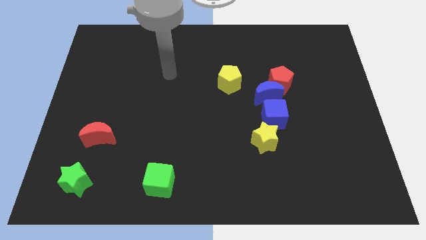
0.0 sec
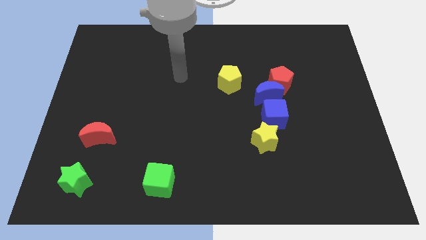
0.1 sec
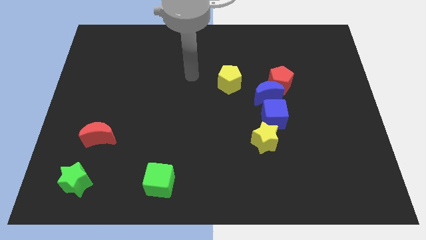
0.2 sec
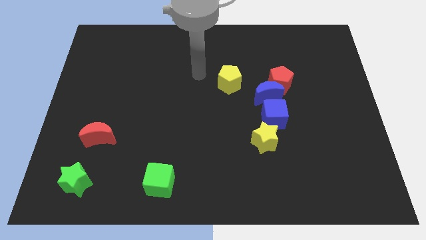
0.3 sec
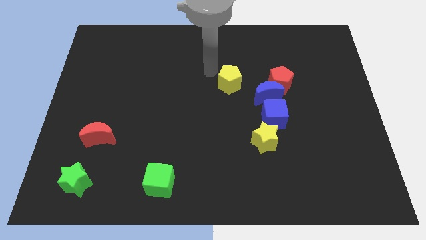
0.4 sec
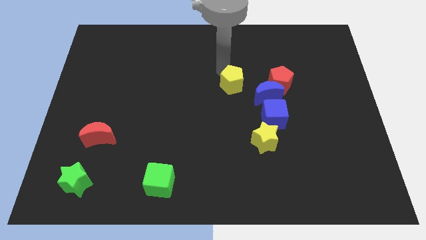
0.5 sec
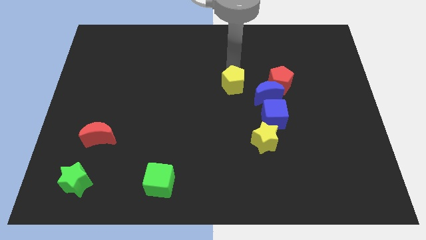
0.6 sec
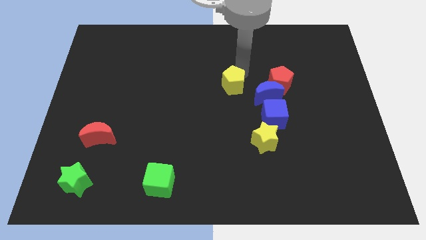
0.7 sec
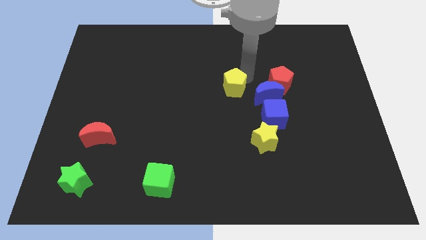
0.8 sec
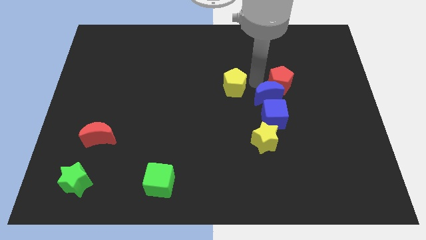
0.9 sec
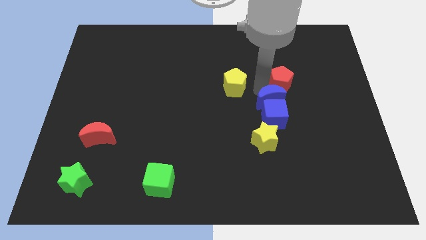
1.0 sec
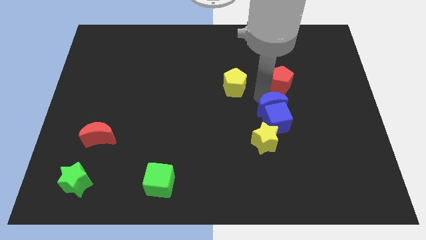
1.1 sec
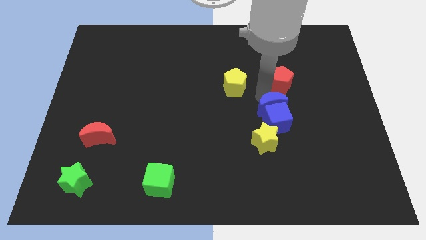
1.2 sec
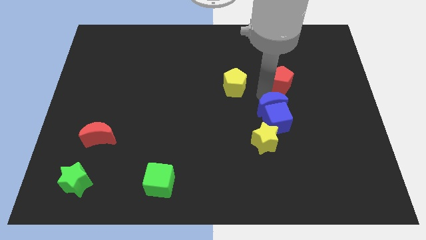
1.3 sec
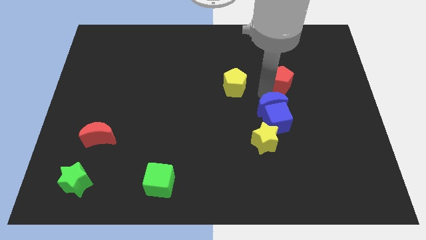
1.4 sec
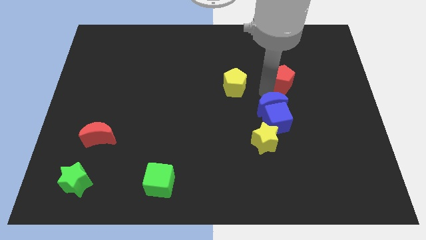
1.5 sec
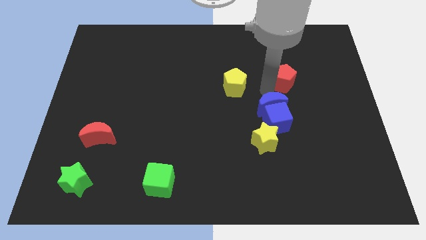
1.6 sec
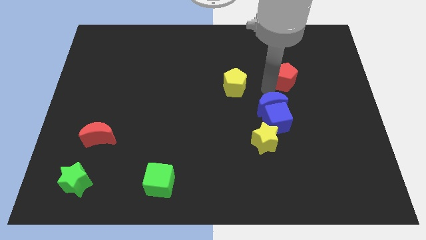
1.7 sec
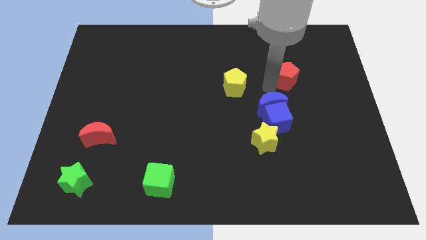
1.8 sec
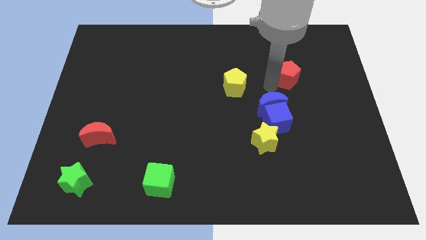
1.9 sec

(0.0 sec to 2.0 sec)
pull the red pentagon apart from the blue moon

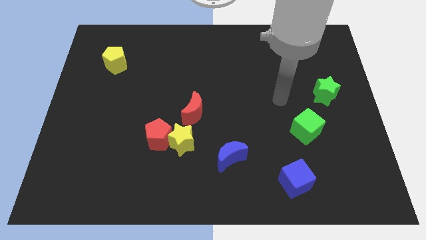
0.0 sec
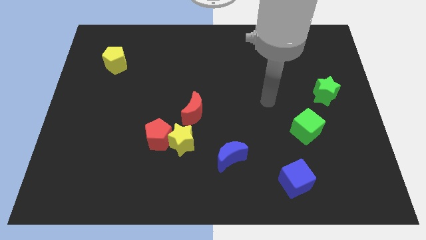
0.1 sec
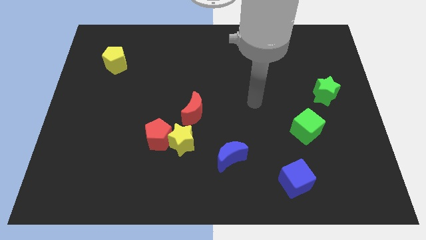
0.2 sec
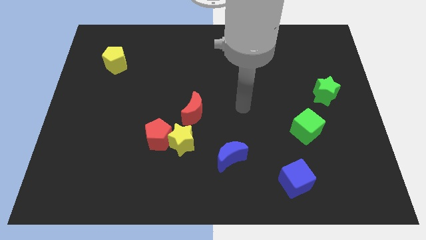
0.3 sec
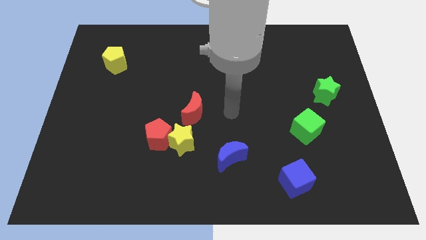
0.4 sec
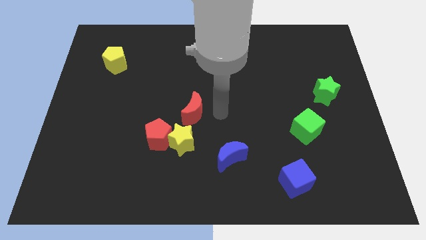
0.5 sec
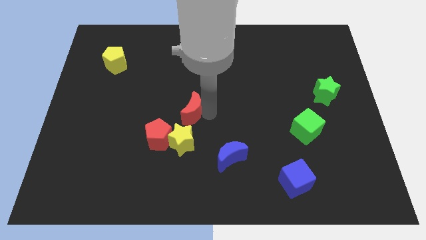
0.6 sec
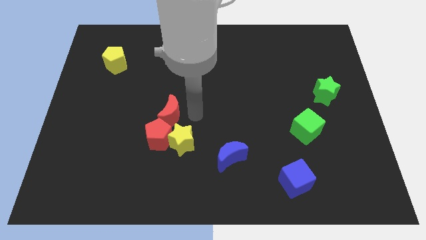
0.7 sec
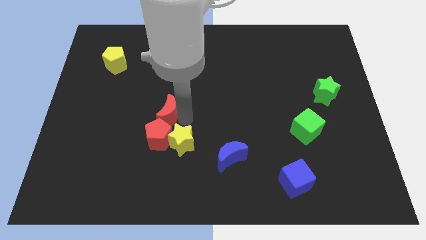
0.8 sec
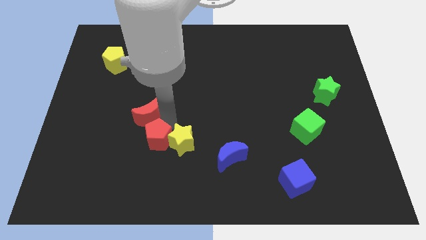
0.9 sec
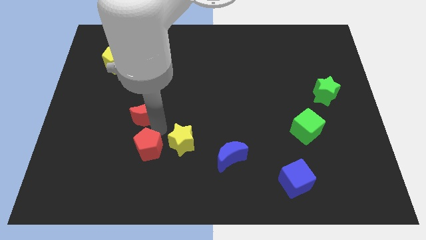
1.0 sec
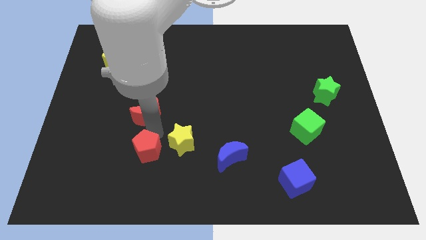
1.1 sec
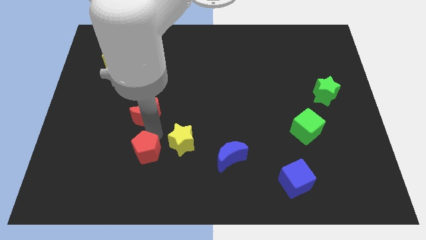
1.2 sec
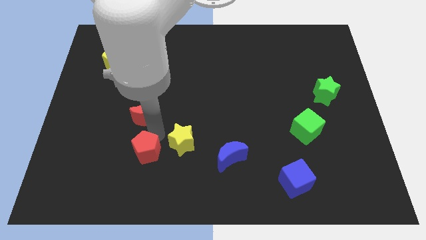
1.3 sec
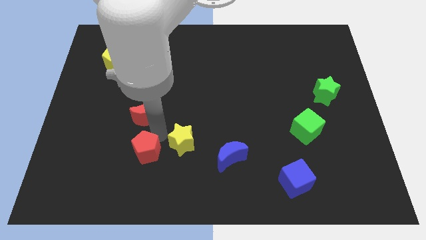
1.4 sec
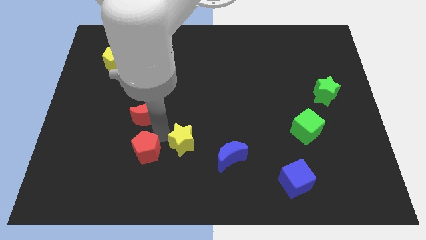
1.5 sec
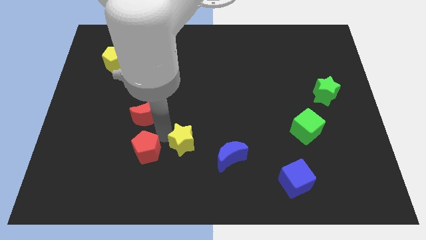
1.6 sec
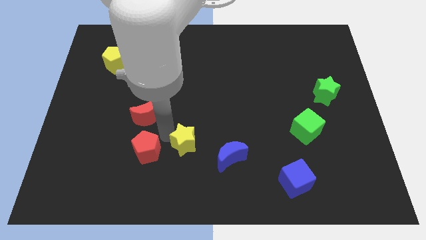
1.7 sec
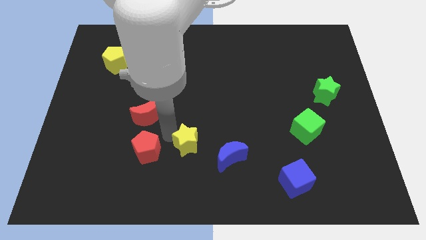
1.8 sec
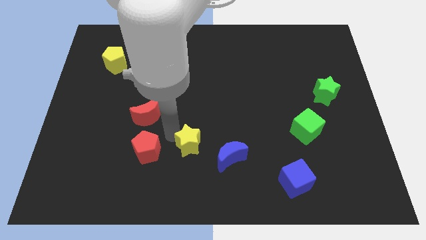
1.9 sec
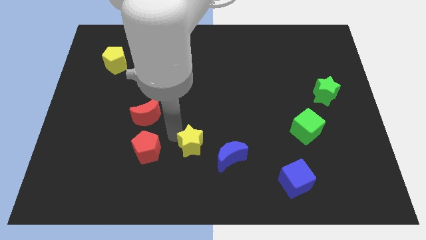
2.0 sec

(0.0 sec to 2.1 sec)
move the yellow star away from the red pentagon and red moon

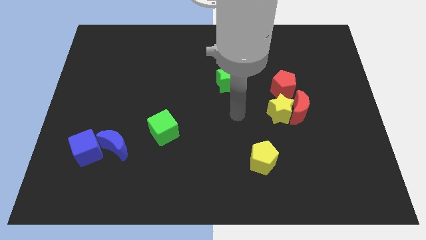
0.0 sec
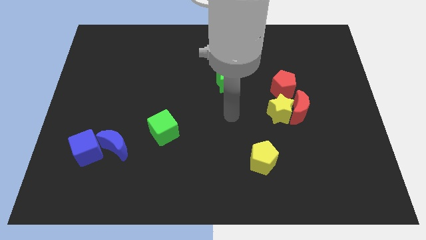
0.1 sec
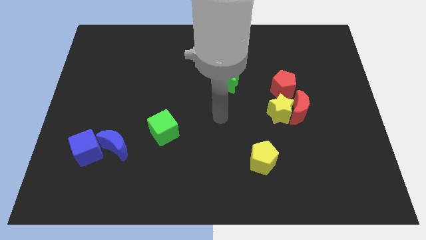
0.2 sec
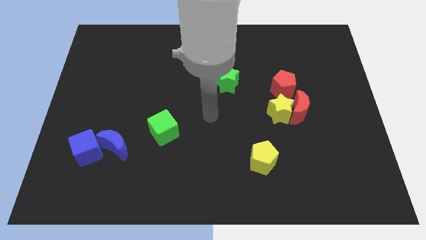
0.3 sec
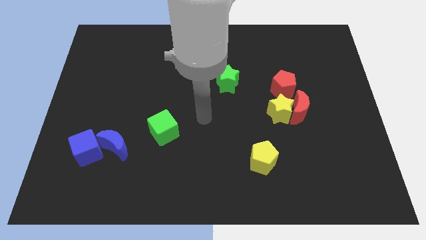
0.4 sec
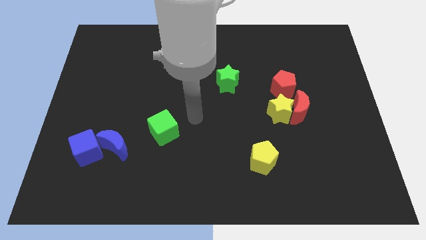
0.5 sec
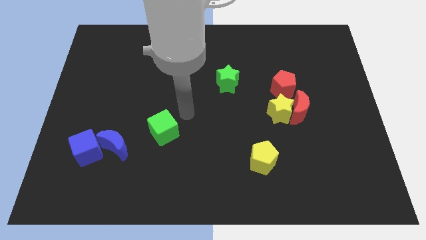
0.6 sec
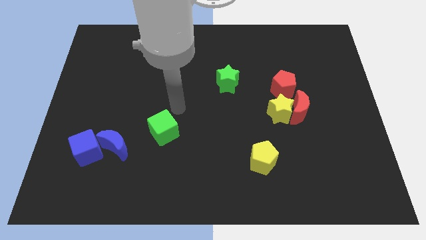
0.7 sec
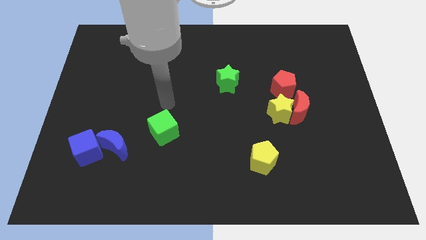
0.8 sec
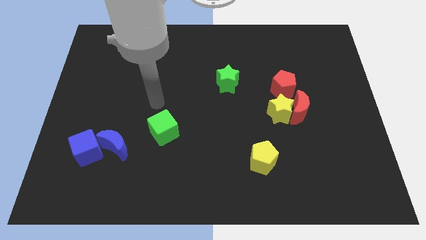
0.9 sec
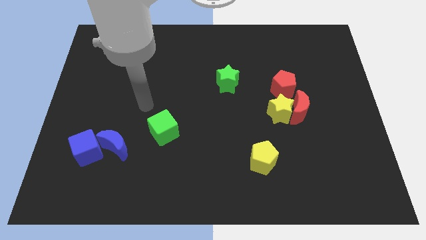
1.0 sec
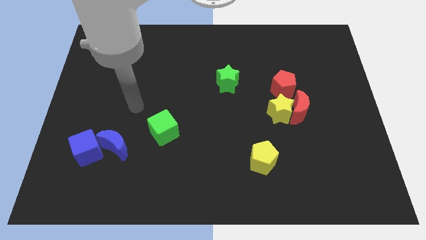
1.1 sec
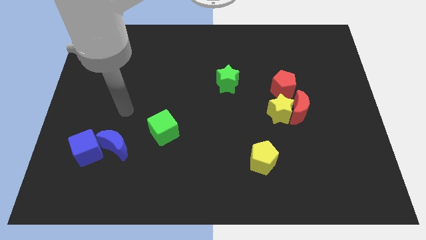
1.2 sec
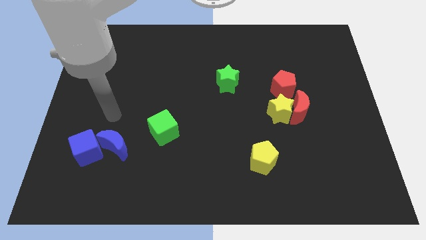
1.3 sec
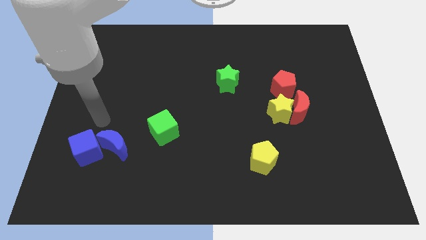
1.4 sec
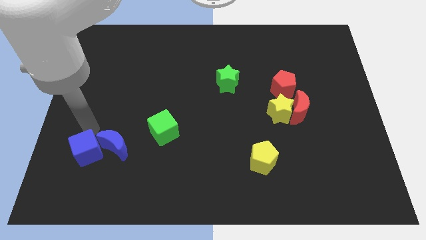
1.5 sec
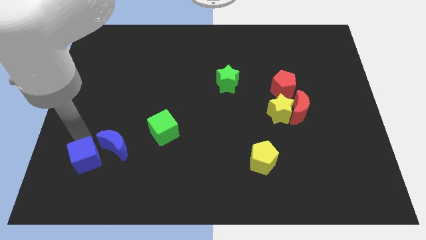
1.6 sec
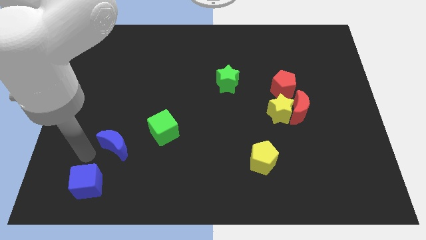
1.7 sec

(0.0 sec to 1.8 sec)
separate the blue moon from the blue cube

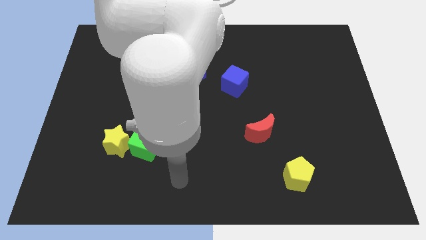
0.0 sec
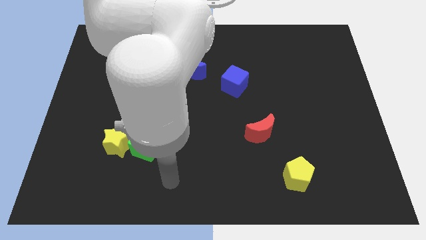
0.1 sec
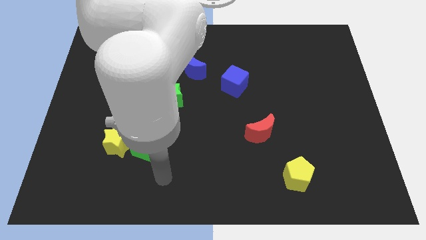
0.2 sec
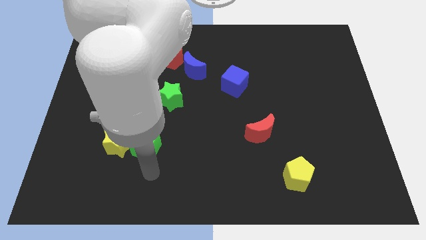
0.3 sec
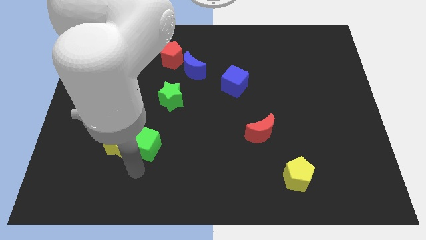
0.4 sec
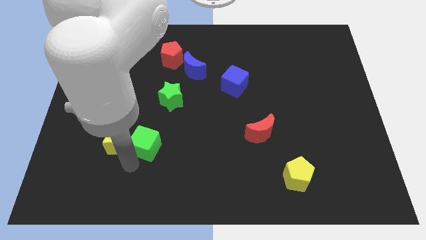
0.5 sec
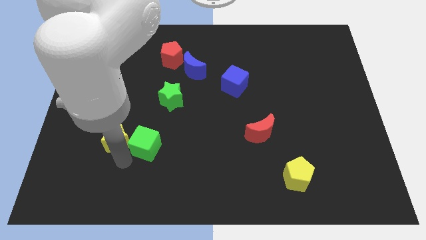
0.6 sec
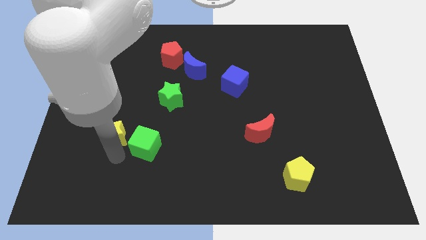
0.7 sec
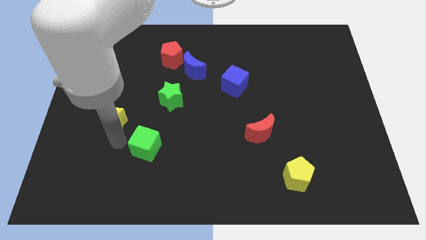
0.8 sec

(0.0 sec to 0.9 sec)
pull the green cube apart from the yellow star

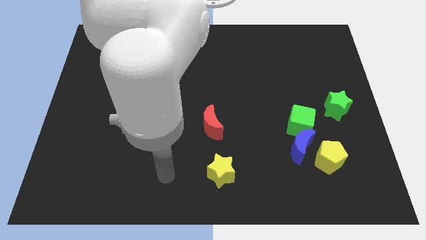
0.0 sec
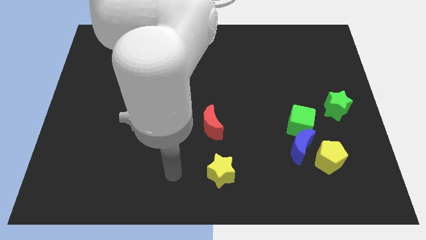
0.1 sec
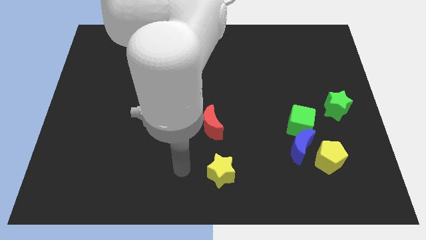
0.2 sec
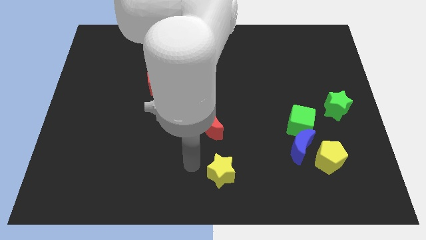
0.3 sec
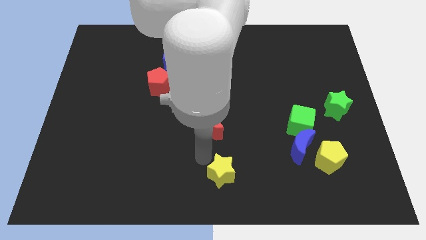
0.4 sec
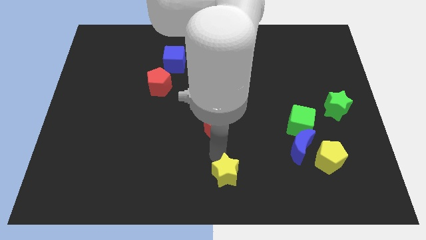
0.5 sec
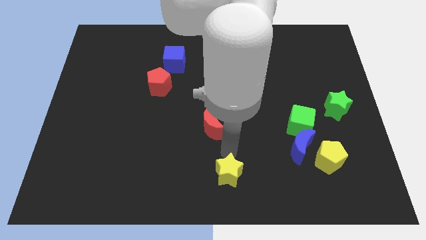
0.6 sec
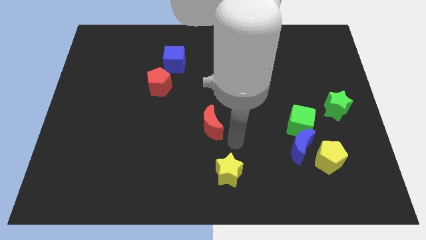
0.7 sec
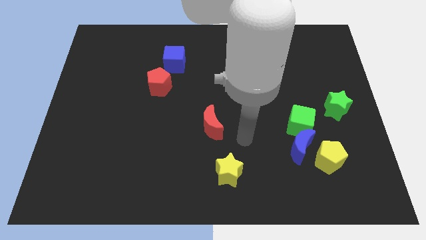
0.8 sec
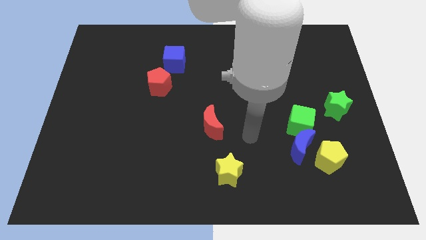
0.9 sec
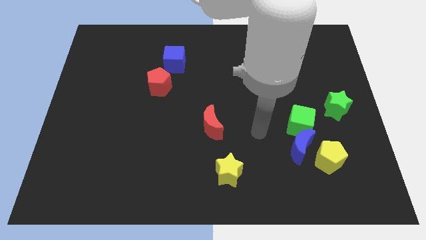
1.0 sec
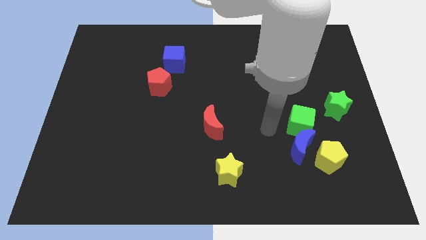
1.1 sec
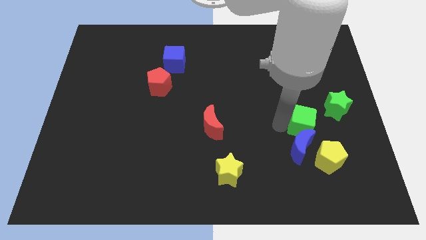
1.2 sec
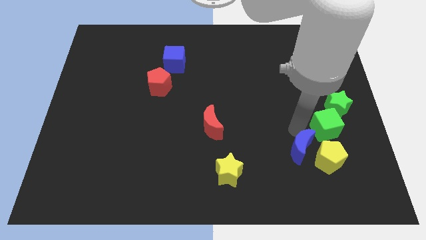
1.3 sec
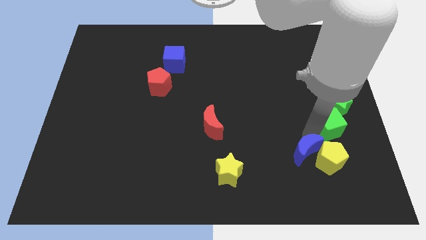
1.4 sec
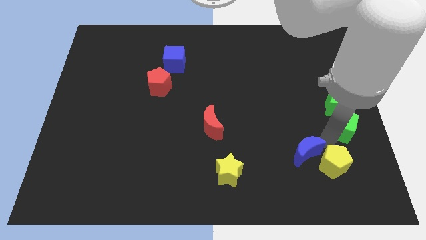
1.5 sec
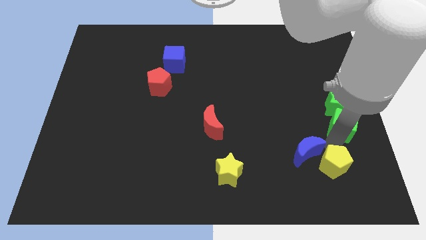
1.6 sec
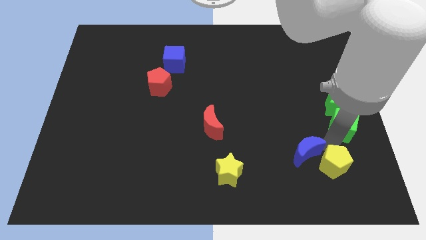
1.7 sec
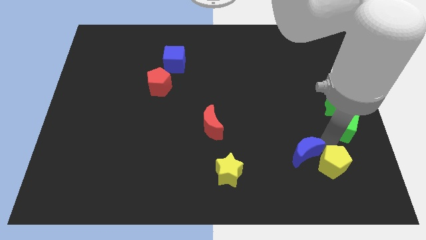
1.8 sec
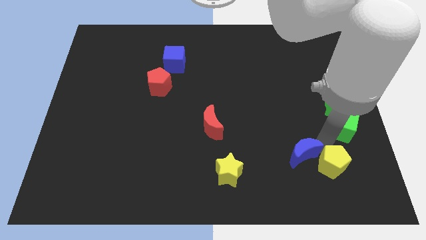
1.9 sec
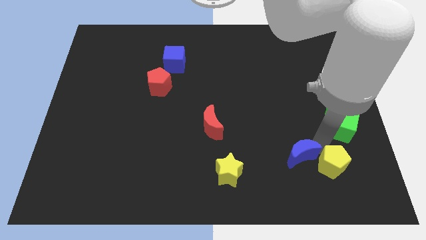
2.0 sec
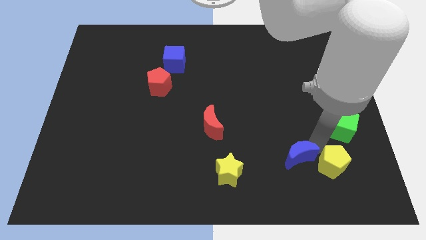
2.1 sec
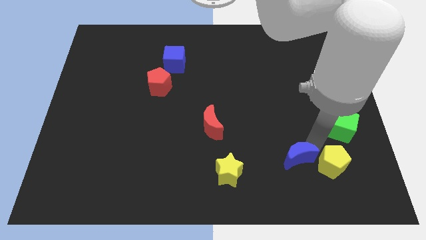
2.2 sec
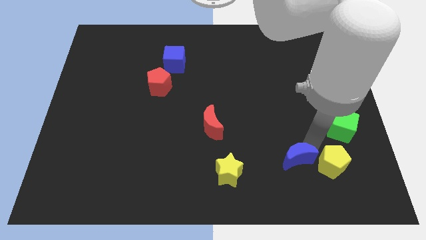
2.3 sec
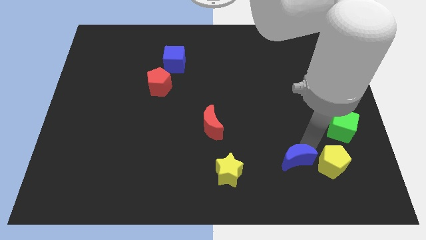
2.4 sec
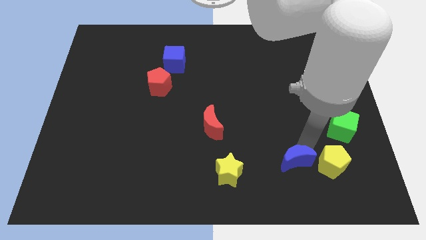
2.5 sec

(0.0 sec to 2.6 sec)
move the blue moon away from the green cube and yellow pentagon
